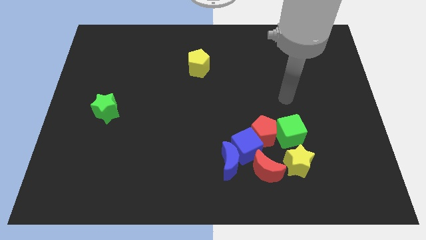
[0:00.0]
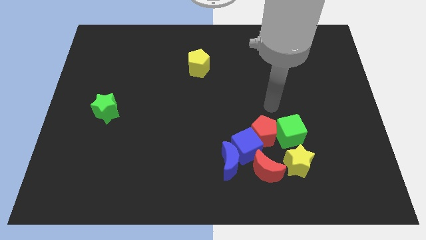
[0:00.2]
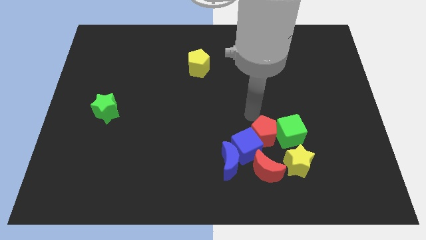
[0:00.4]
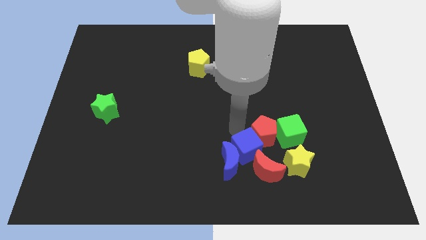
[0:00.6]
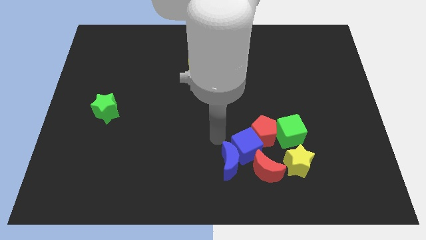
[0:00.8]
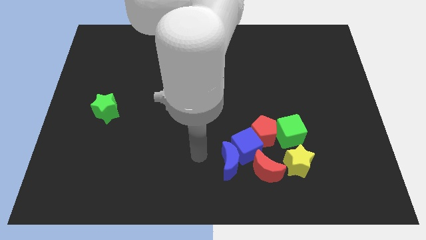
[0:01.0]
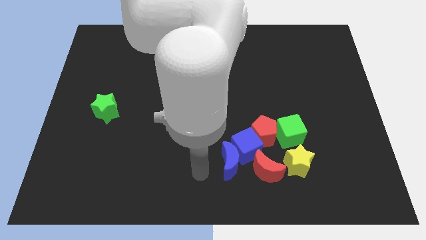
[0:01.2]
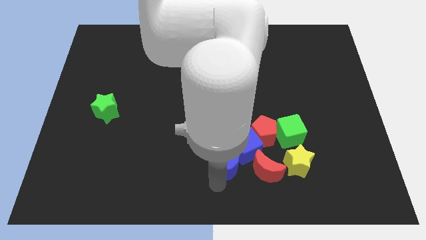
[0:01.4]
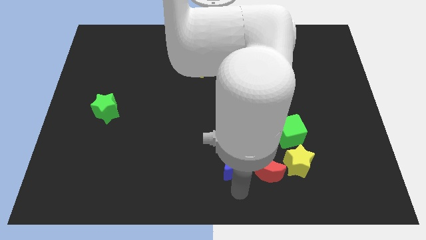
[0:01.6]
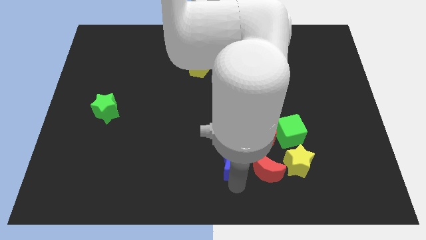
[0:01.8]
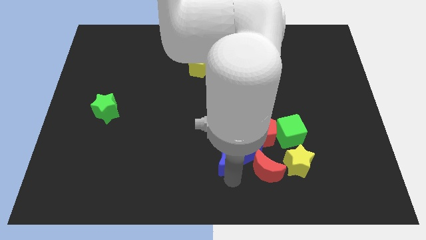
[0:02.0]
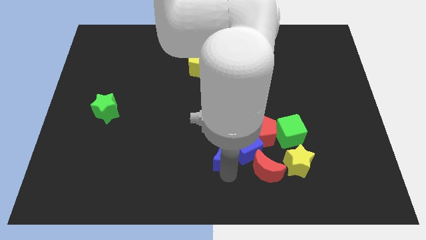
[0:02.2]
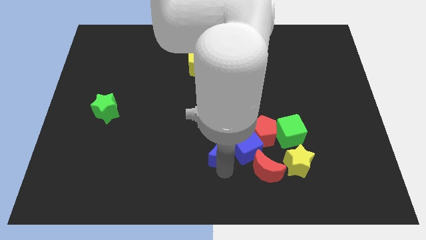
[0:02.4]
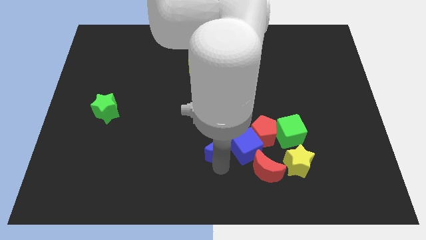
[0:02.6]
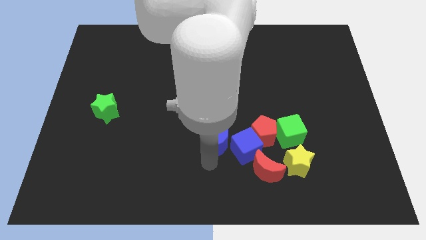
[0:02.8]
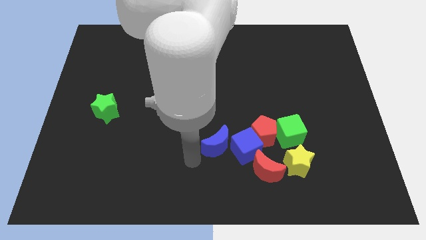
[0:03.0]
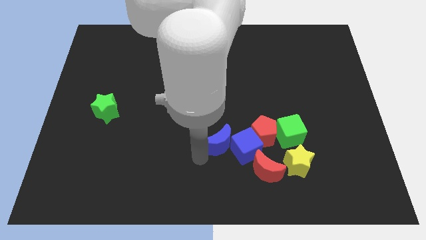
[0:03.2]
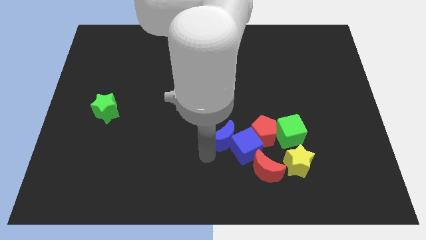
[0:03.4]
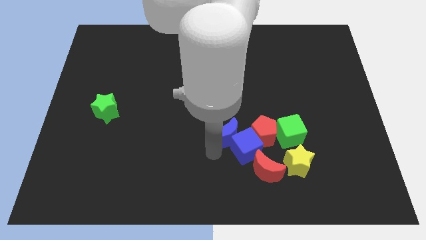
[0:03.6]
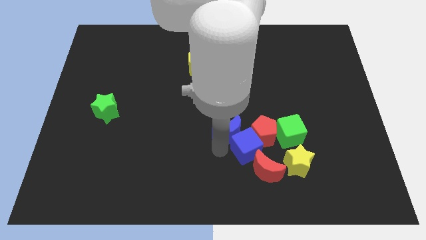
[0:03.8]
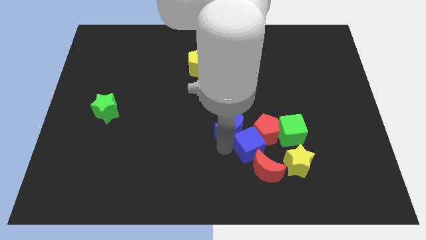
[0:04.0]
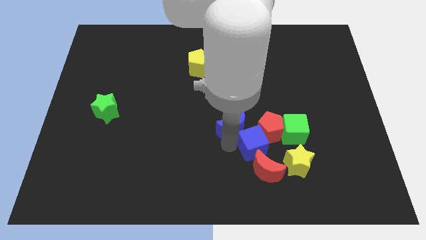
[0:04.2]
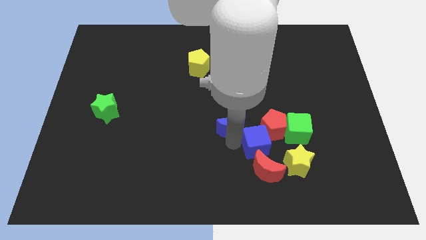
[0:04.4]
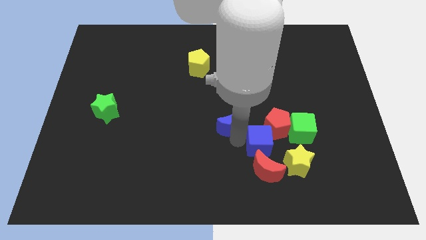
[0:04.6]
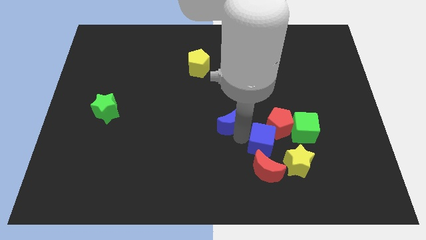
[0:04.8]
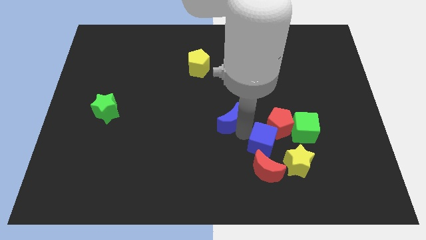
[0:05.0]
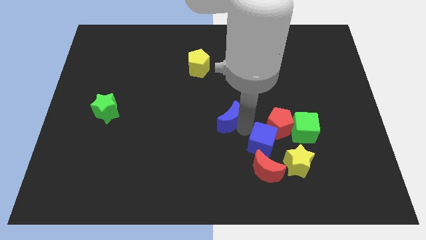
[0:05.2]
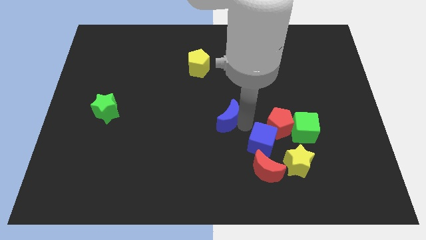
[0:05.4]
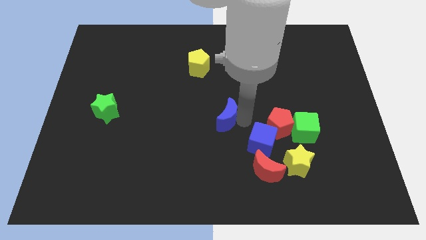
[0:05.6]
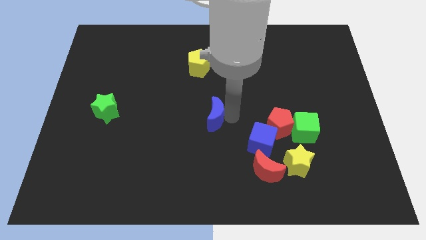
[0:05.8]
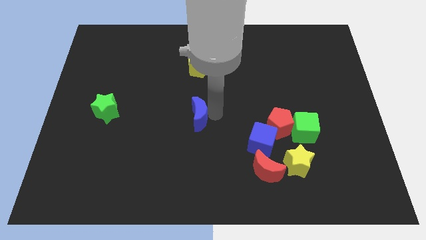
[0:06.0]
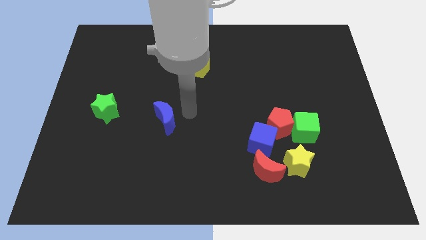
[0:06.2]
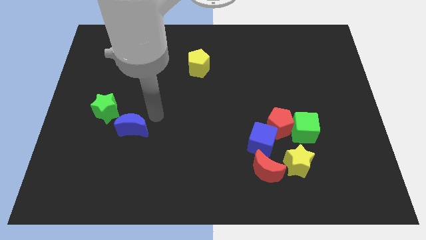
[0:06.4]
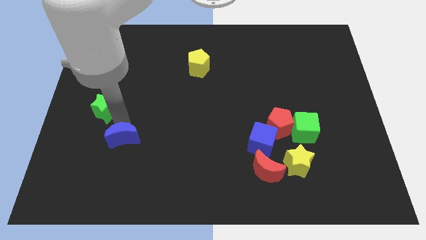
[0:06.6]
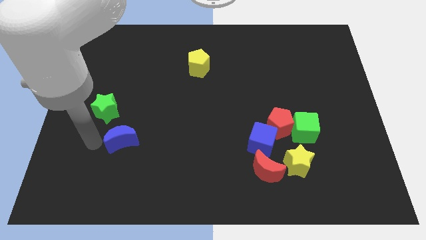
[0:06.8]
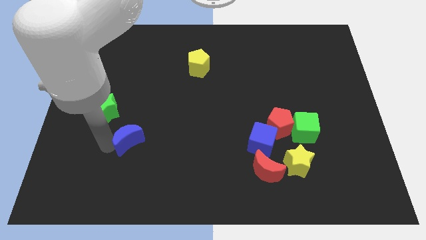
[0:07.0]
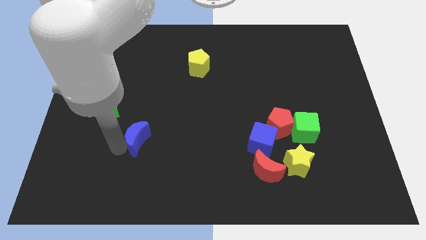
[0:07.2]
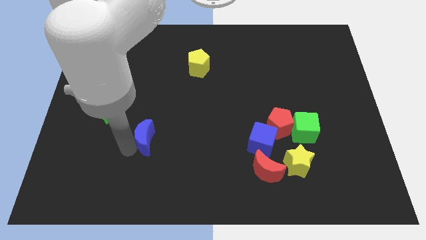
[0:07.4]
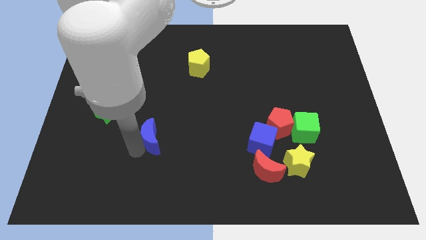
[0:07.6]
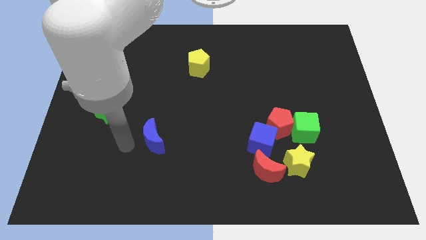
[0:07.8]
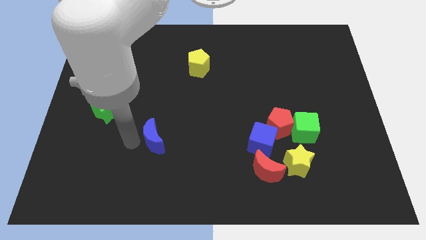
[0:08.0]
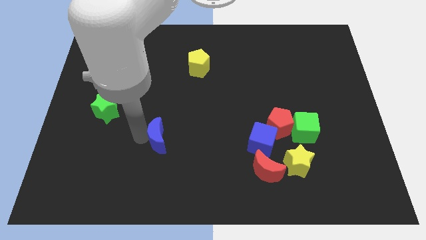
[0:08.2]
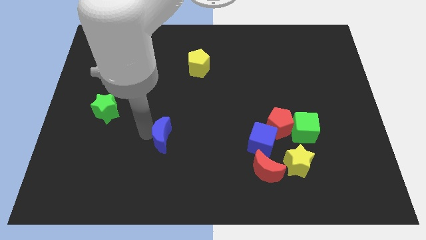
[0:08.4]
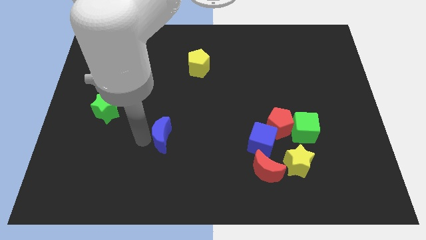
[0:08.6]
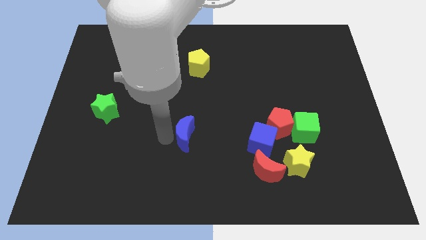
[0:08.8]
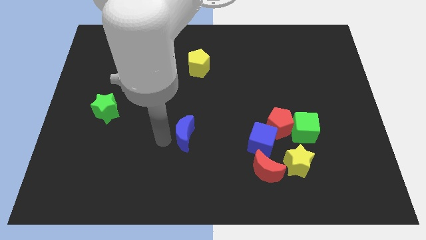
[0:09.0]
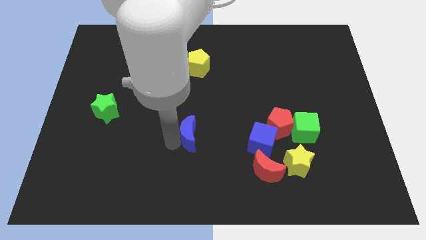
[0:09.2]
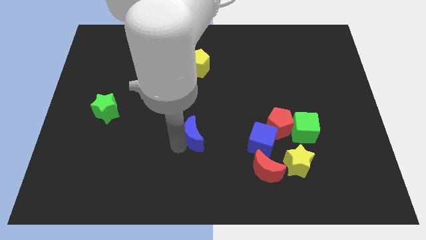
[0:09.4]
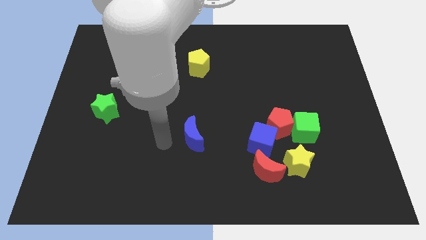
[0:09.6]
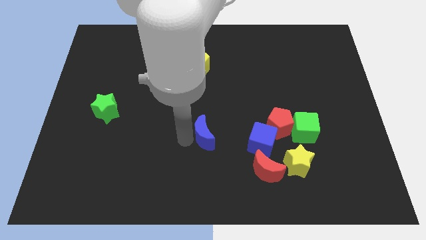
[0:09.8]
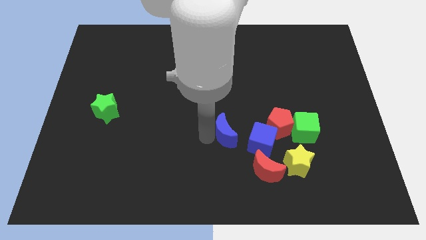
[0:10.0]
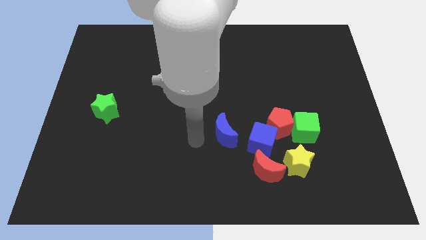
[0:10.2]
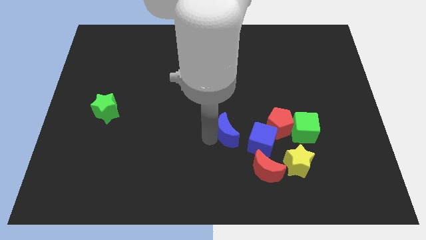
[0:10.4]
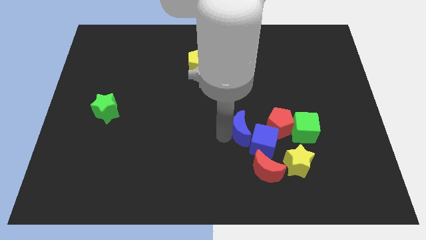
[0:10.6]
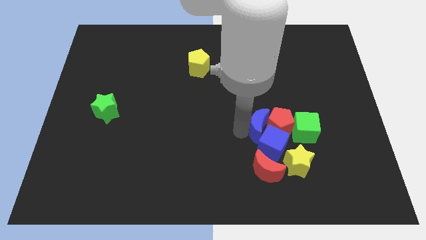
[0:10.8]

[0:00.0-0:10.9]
move the blue moon next to the red pentagon

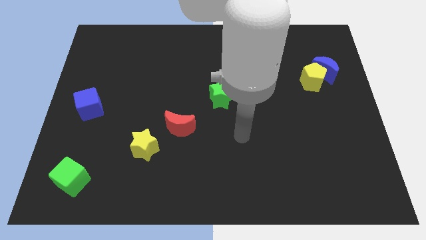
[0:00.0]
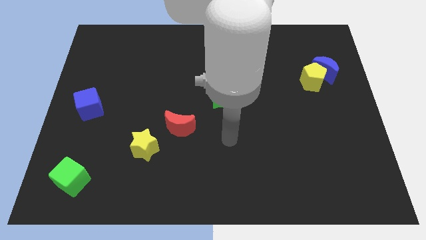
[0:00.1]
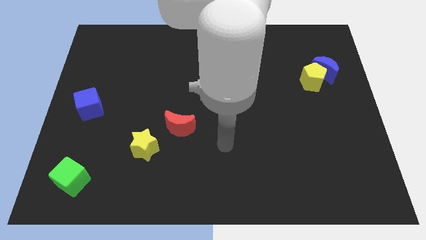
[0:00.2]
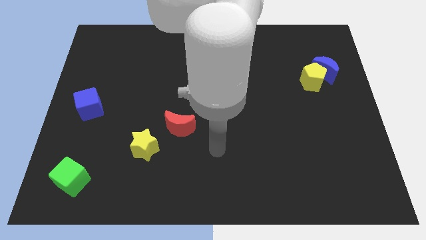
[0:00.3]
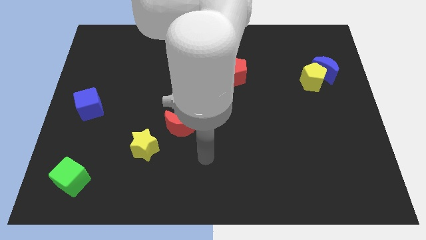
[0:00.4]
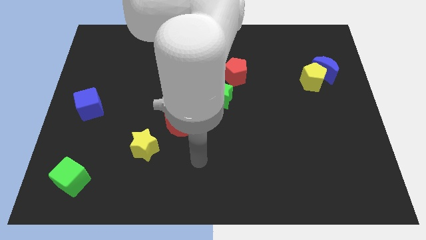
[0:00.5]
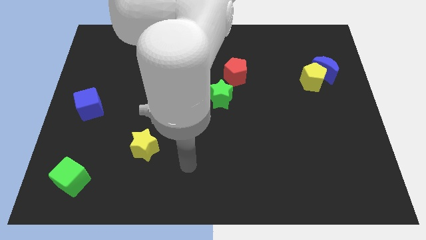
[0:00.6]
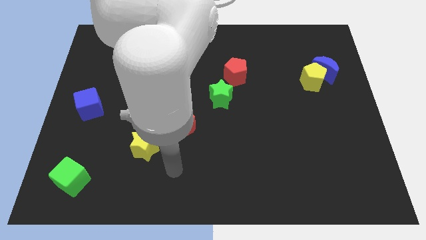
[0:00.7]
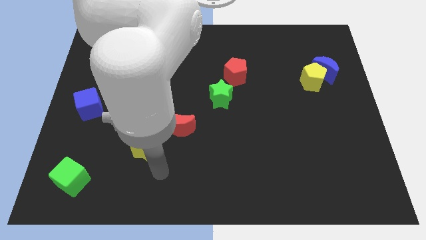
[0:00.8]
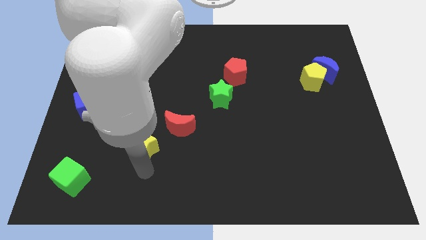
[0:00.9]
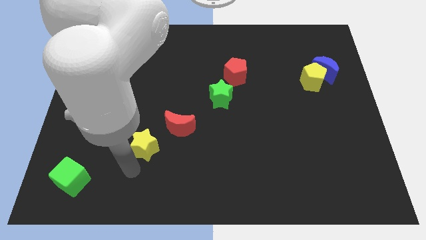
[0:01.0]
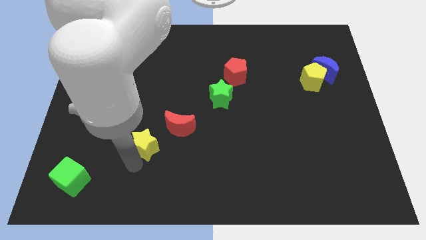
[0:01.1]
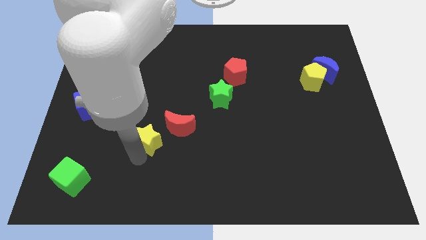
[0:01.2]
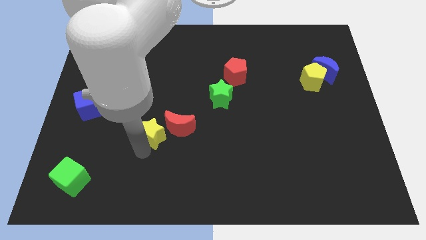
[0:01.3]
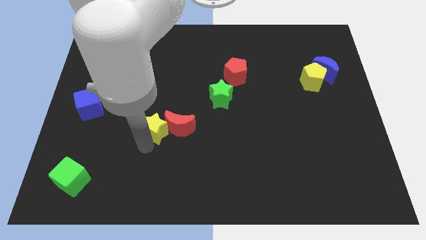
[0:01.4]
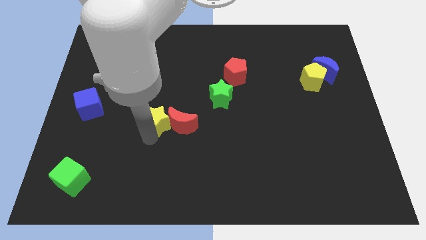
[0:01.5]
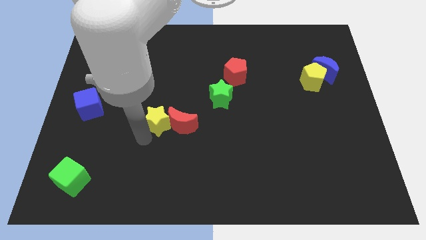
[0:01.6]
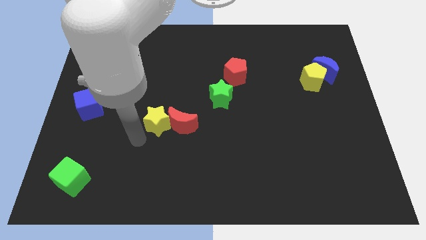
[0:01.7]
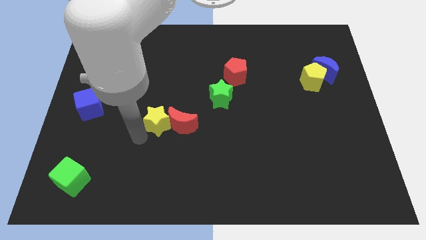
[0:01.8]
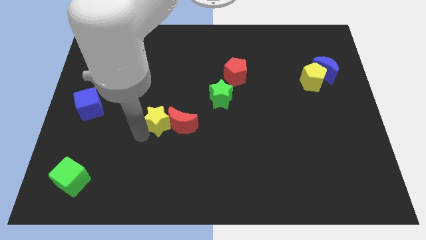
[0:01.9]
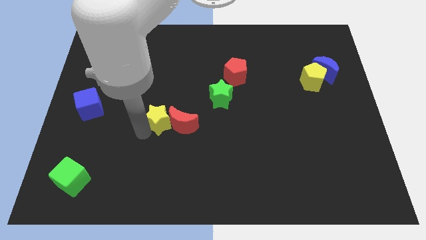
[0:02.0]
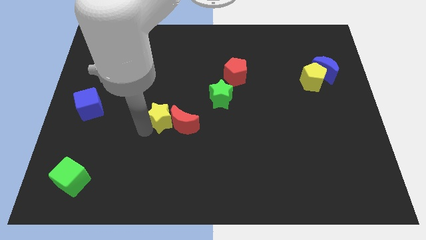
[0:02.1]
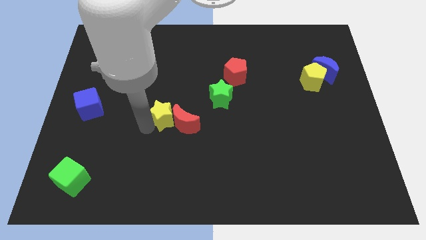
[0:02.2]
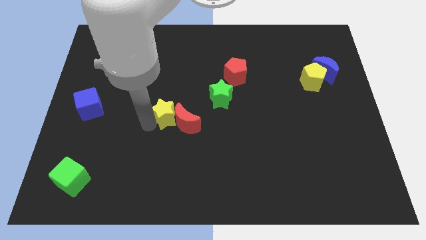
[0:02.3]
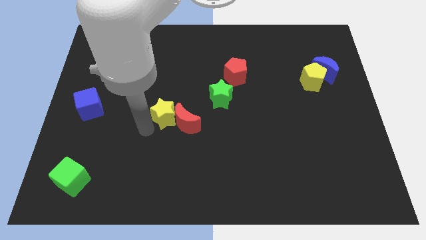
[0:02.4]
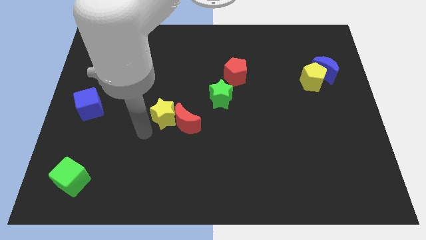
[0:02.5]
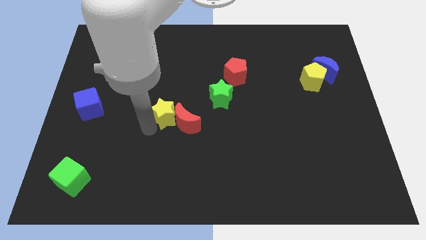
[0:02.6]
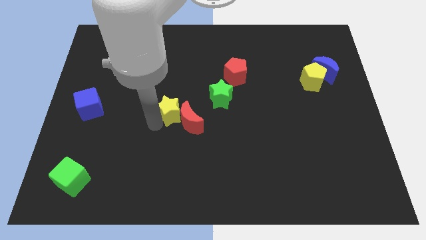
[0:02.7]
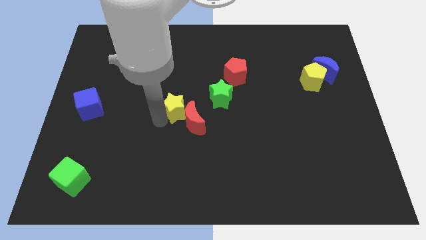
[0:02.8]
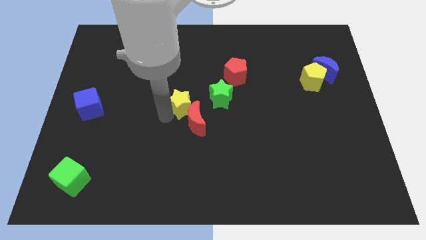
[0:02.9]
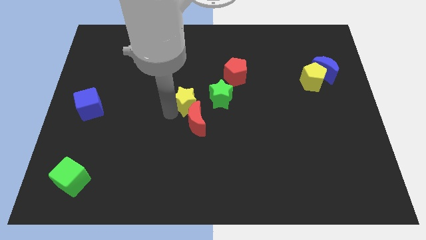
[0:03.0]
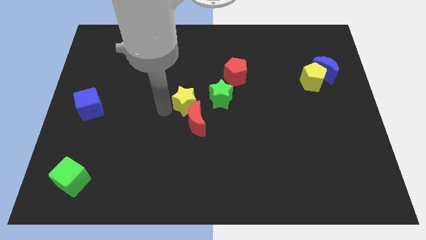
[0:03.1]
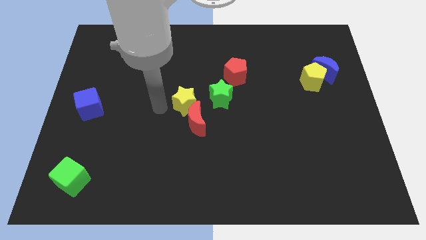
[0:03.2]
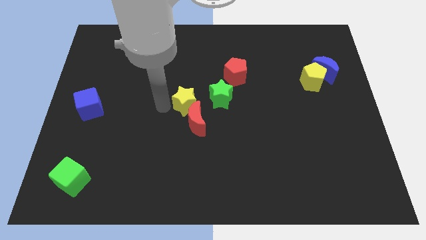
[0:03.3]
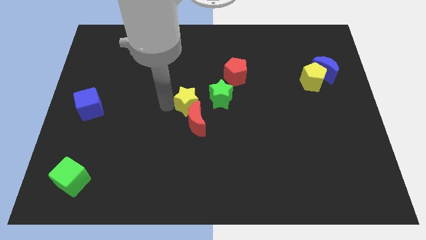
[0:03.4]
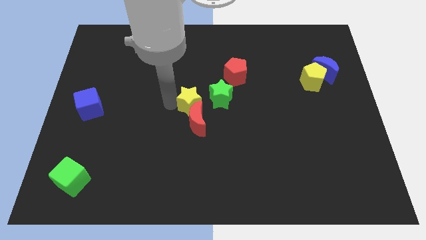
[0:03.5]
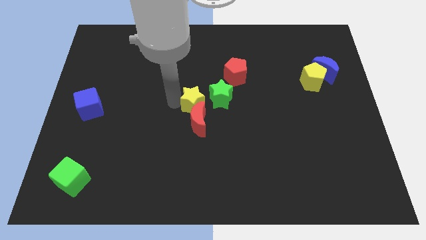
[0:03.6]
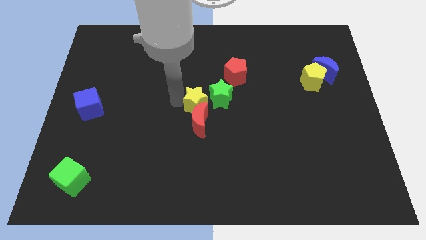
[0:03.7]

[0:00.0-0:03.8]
push the yellow star towards the green star
